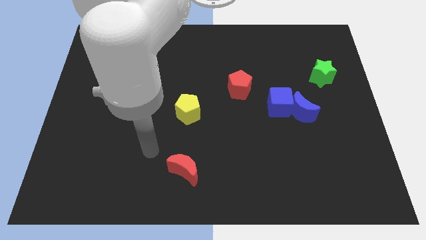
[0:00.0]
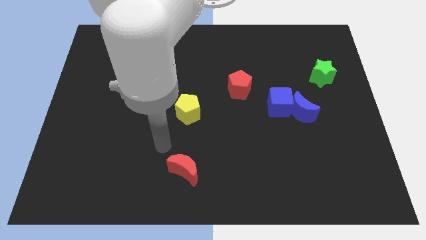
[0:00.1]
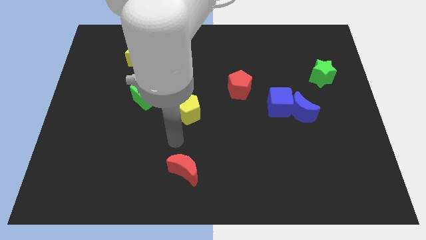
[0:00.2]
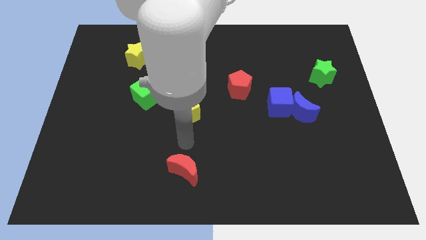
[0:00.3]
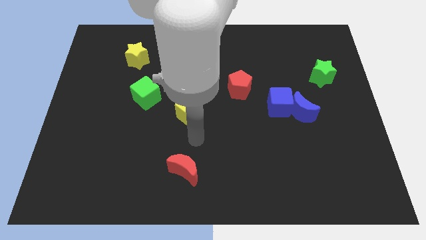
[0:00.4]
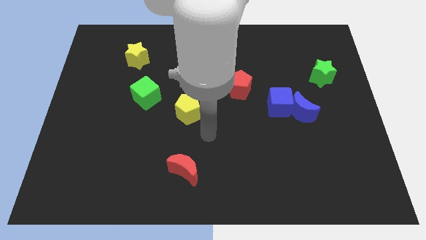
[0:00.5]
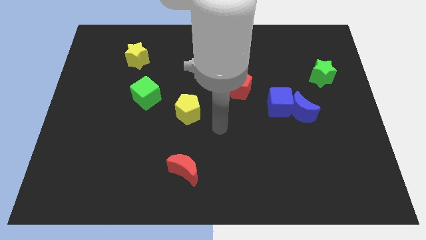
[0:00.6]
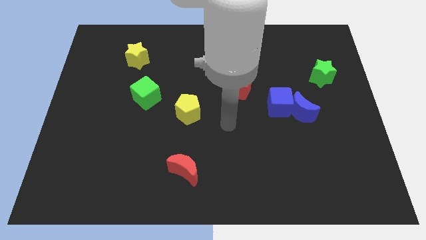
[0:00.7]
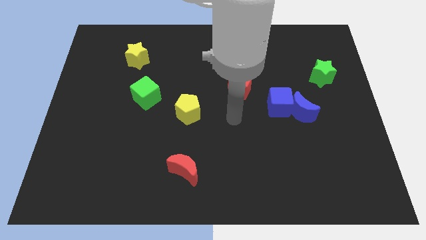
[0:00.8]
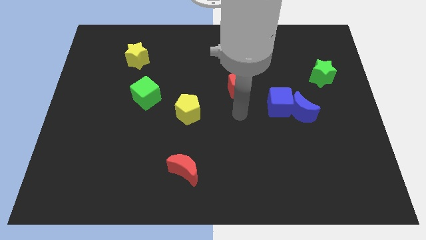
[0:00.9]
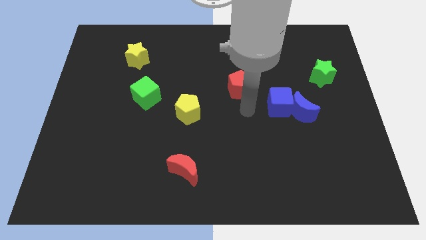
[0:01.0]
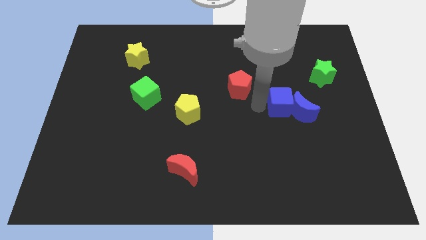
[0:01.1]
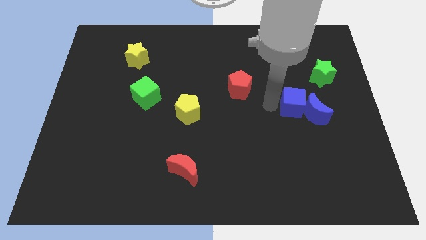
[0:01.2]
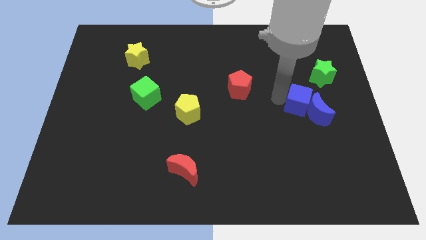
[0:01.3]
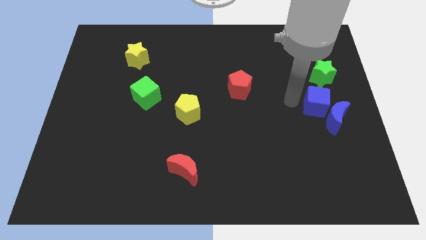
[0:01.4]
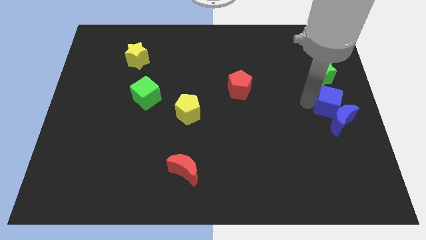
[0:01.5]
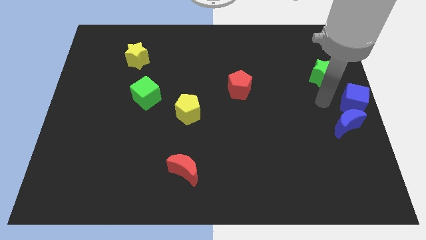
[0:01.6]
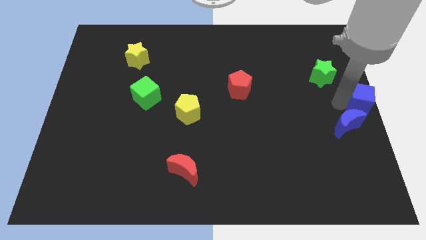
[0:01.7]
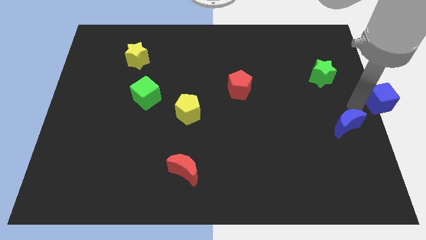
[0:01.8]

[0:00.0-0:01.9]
move the blue moon away from the blue cube

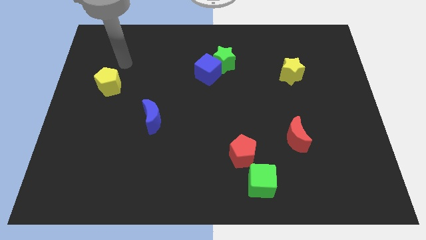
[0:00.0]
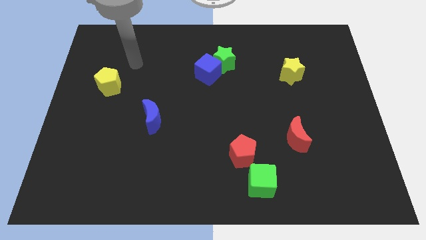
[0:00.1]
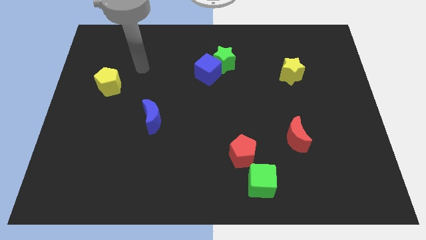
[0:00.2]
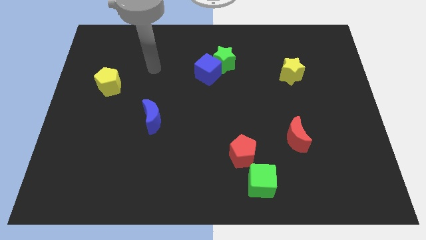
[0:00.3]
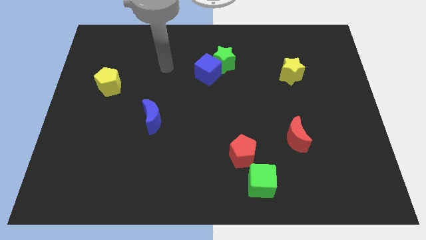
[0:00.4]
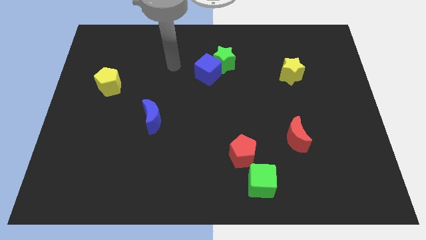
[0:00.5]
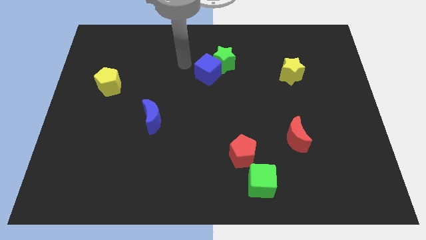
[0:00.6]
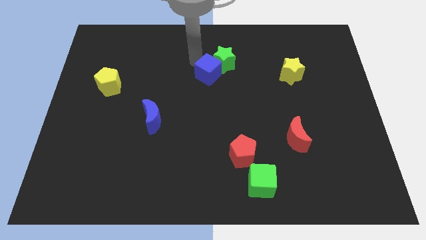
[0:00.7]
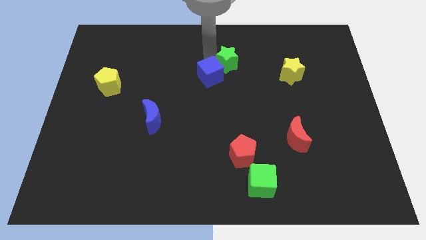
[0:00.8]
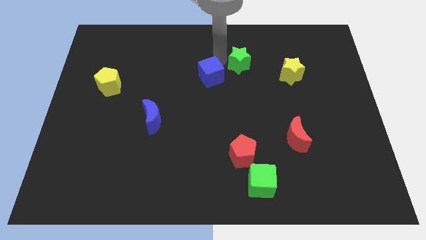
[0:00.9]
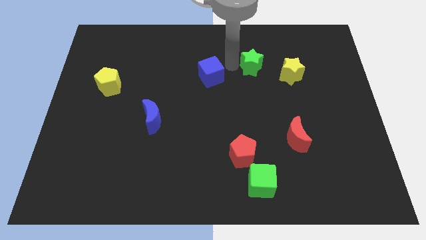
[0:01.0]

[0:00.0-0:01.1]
move the blue cube away from the green star

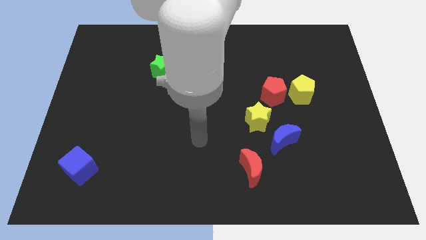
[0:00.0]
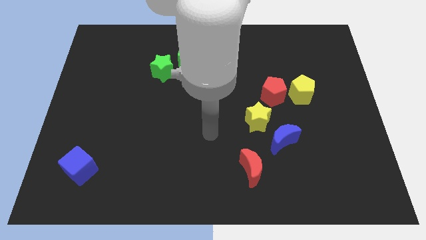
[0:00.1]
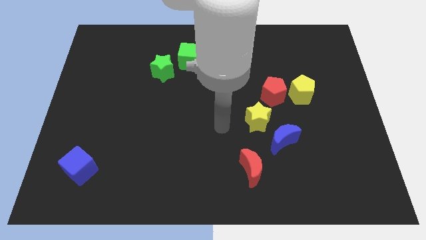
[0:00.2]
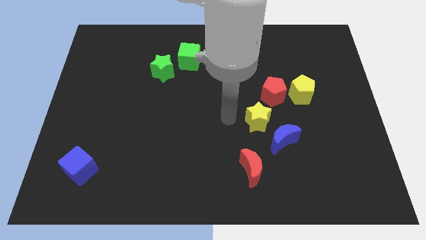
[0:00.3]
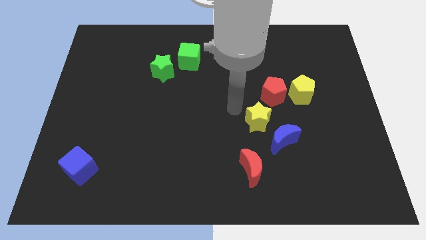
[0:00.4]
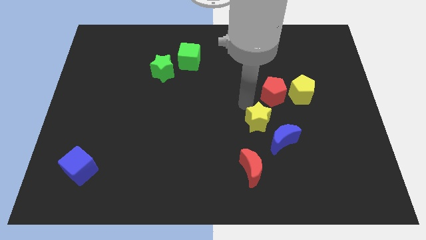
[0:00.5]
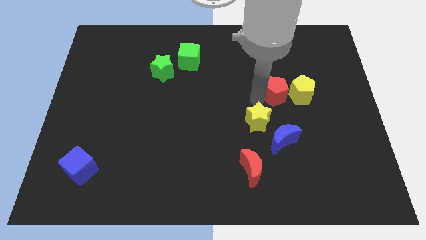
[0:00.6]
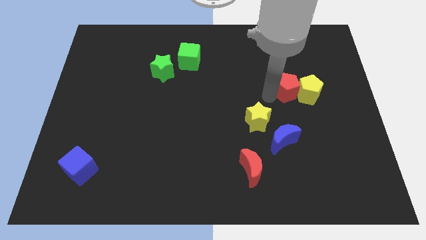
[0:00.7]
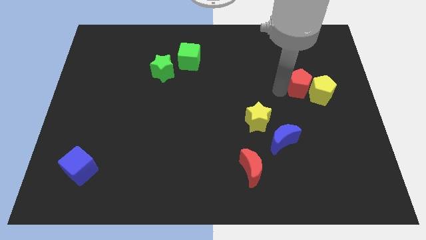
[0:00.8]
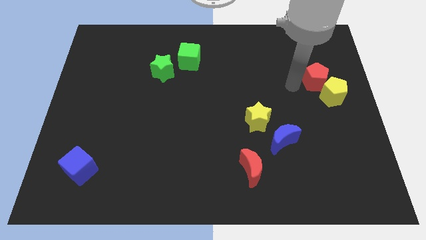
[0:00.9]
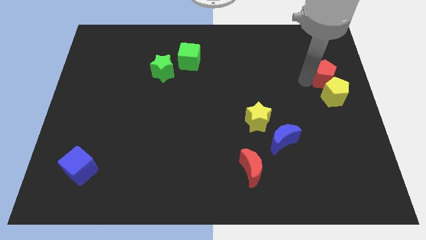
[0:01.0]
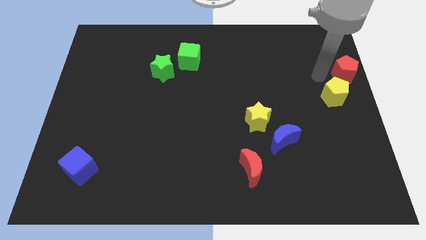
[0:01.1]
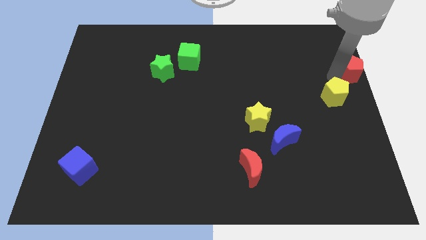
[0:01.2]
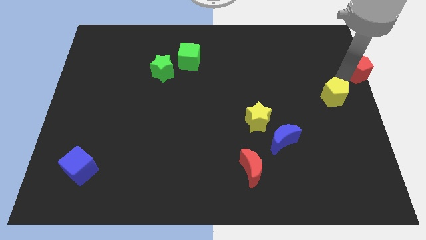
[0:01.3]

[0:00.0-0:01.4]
separate the yellow pentagon from the red pentagon

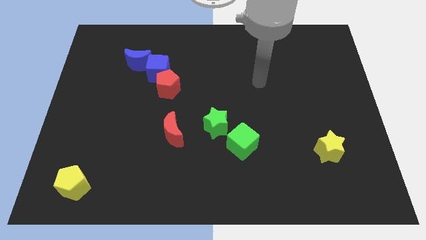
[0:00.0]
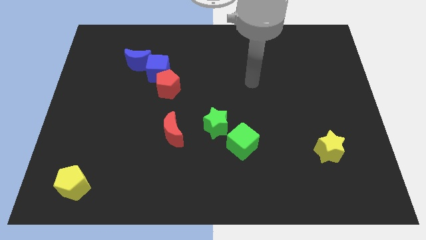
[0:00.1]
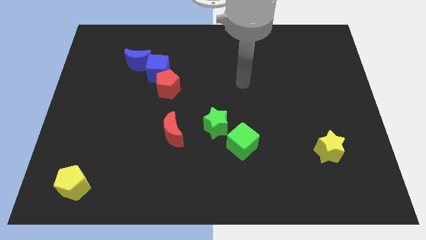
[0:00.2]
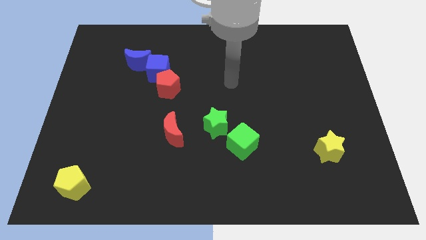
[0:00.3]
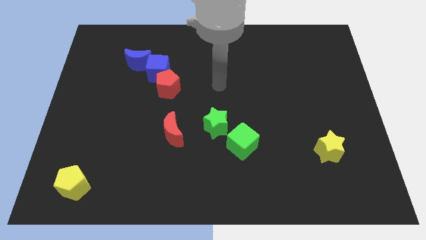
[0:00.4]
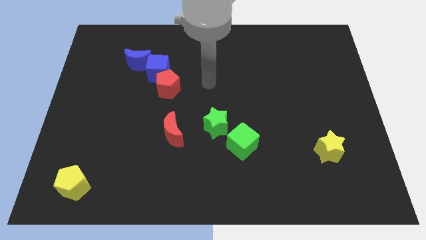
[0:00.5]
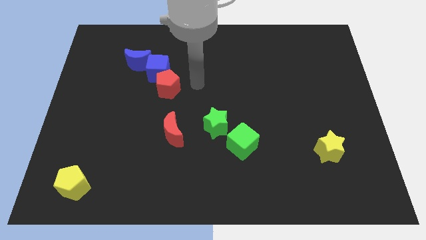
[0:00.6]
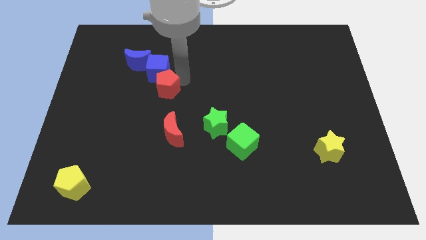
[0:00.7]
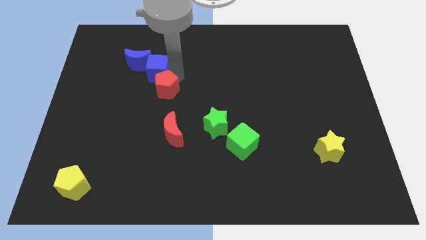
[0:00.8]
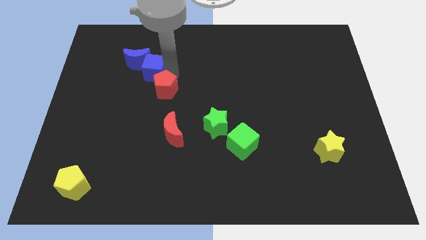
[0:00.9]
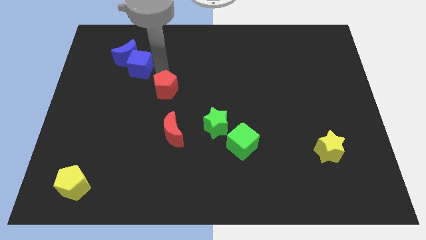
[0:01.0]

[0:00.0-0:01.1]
move the red pentagon away from the blue cube

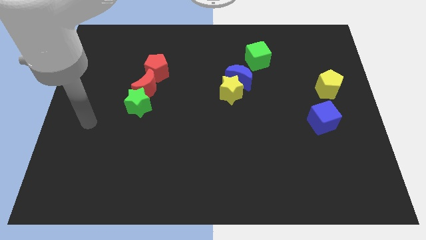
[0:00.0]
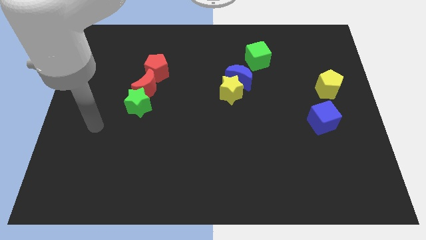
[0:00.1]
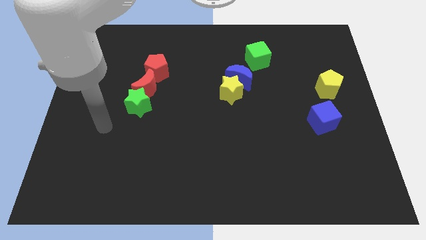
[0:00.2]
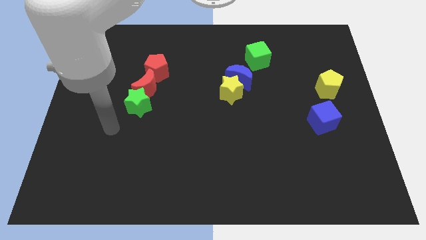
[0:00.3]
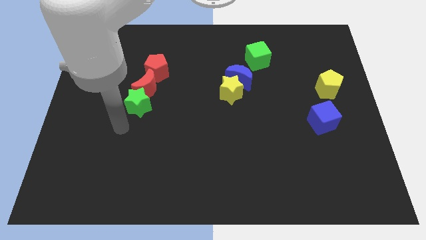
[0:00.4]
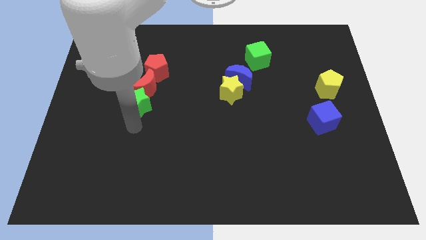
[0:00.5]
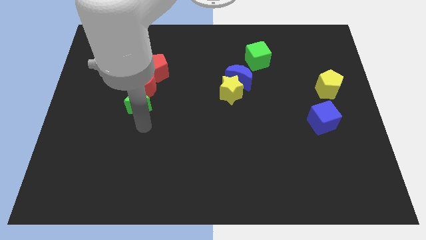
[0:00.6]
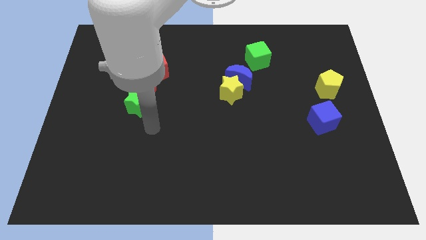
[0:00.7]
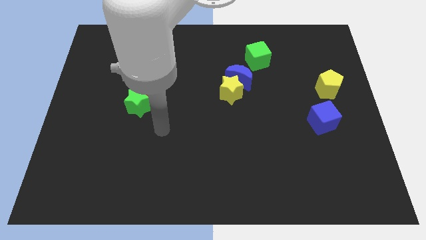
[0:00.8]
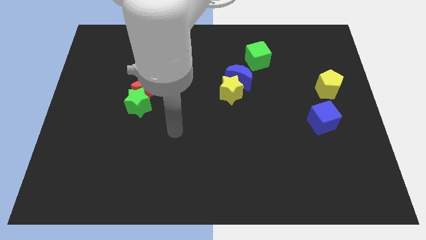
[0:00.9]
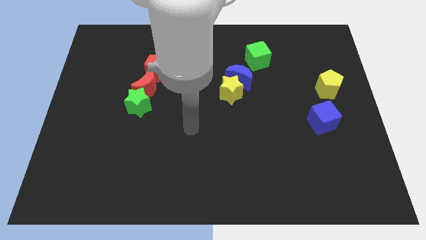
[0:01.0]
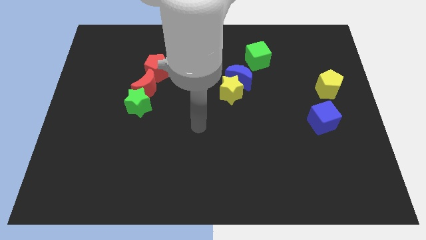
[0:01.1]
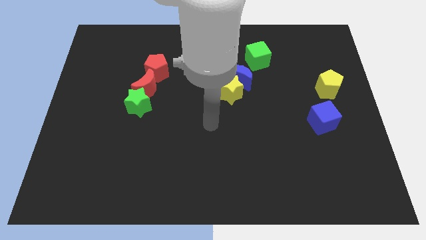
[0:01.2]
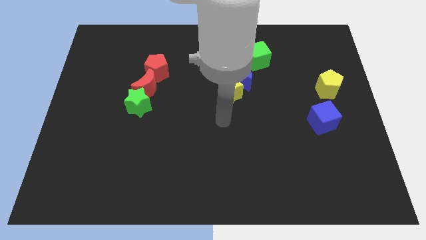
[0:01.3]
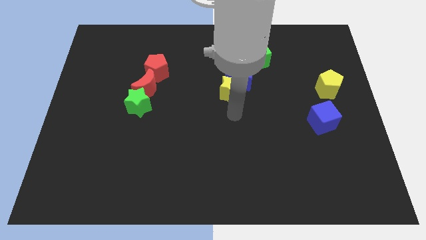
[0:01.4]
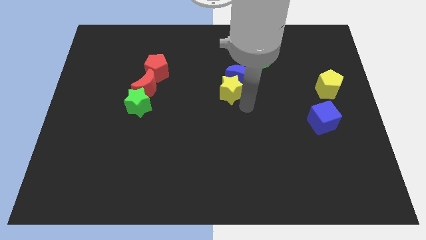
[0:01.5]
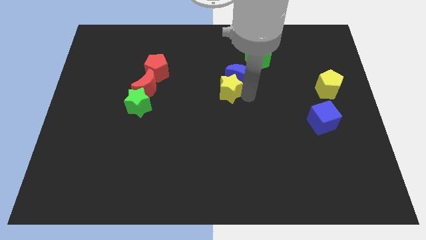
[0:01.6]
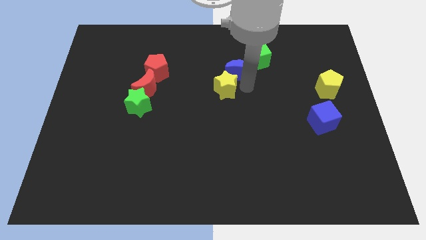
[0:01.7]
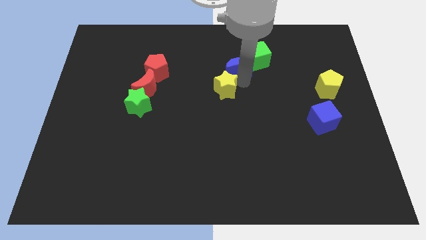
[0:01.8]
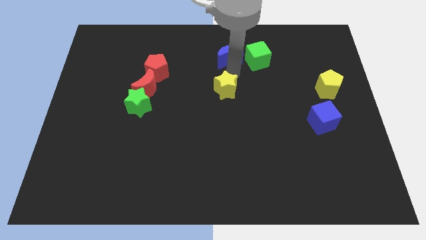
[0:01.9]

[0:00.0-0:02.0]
pull the yellow star apart from the blue moon

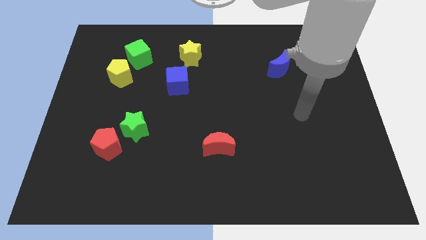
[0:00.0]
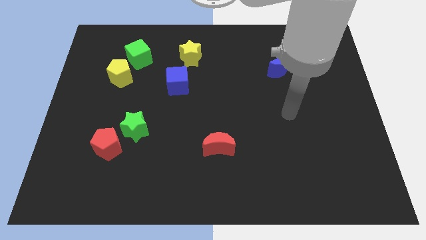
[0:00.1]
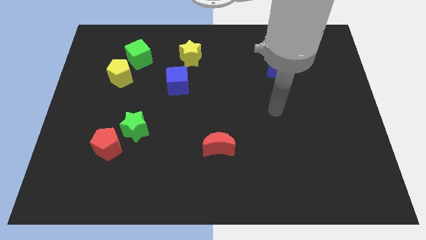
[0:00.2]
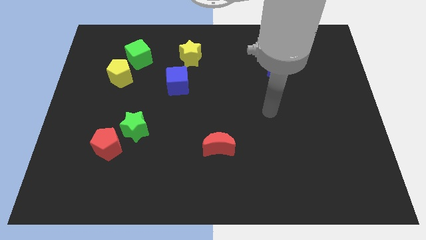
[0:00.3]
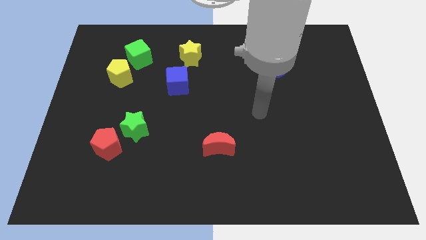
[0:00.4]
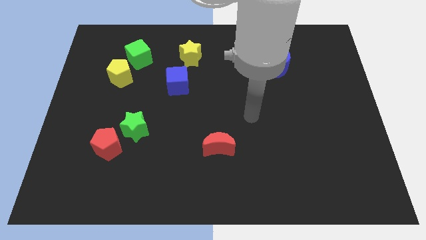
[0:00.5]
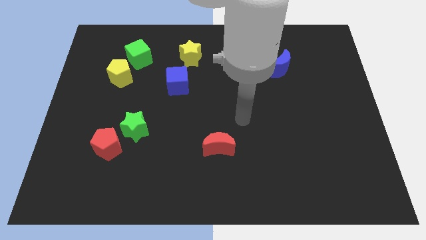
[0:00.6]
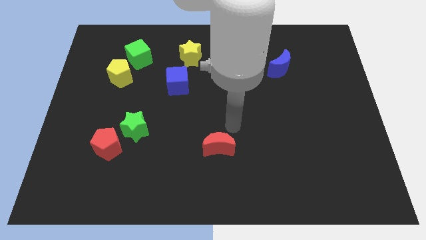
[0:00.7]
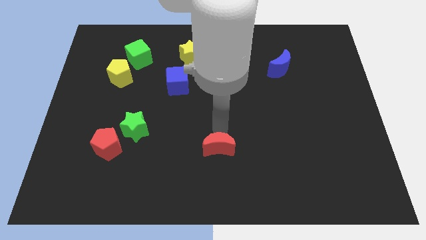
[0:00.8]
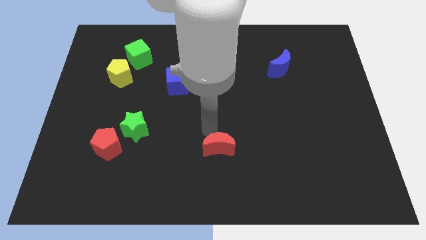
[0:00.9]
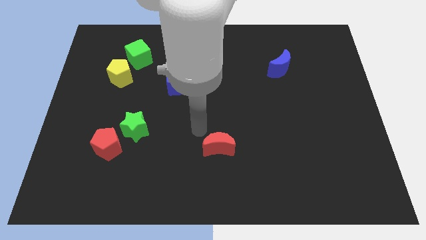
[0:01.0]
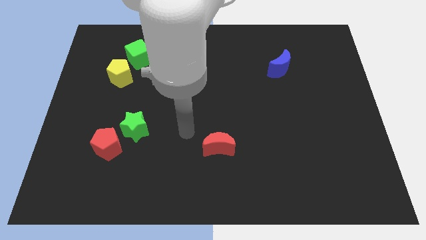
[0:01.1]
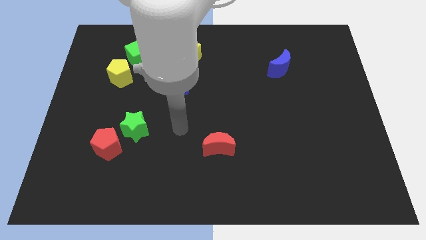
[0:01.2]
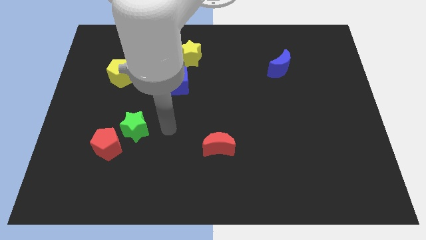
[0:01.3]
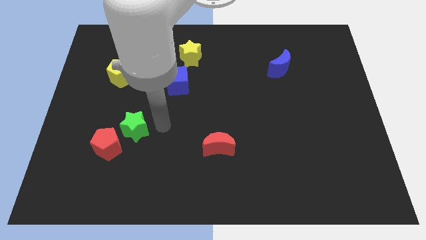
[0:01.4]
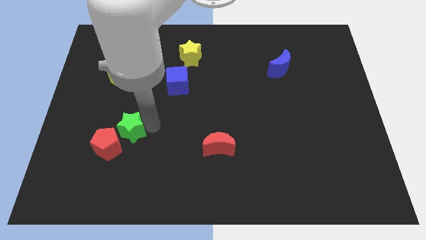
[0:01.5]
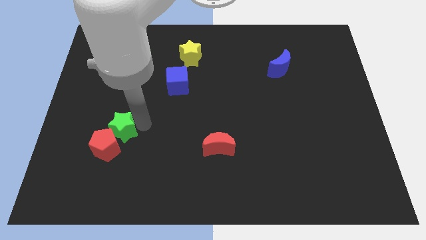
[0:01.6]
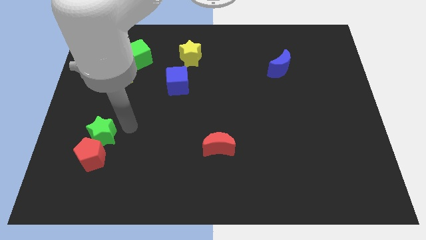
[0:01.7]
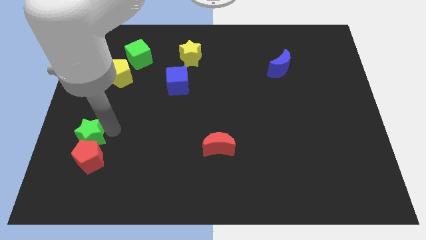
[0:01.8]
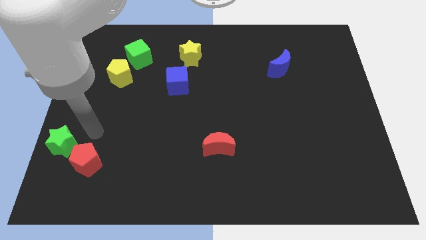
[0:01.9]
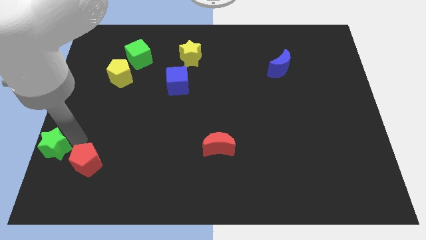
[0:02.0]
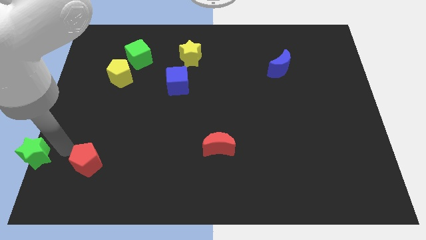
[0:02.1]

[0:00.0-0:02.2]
move the red pentagon away from the green star
